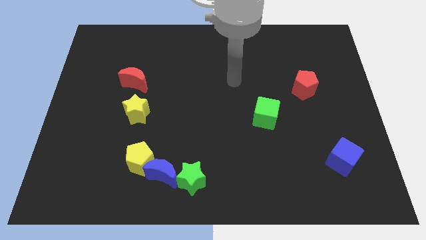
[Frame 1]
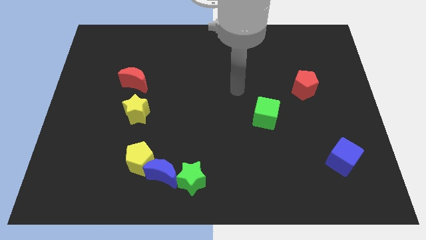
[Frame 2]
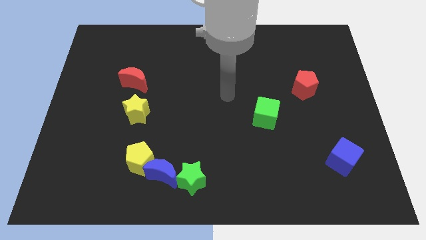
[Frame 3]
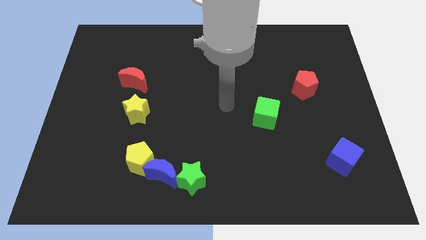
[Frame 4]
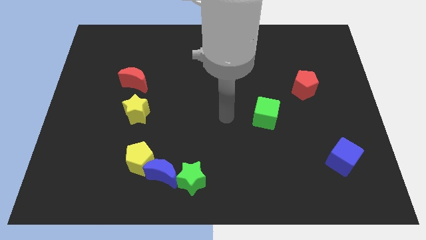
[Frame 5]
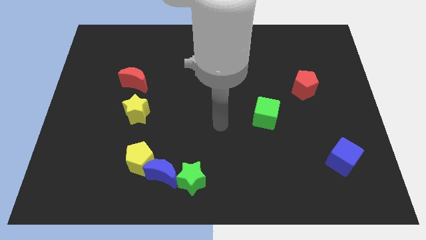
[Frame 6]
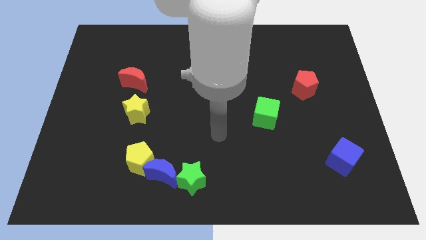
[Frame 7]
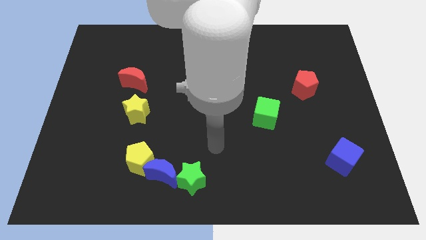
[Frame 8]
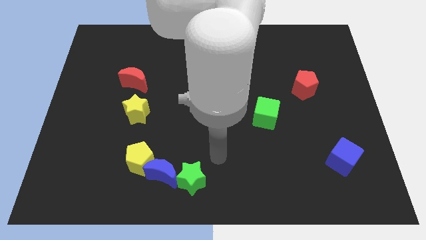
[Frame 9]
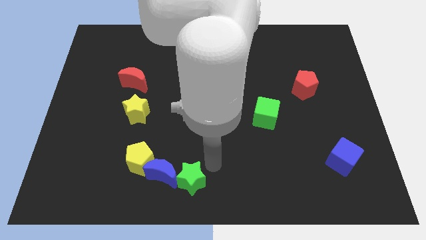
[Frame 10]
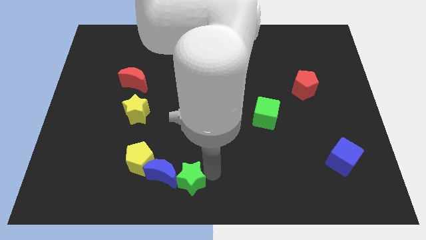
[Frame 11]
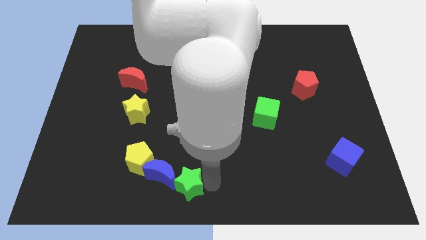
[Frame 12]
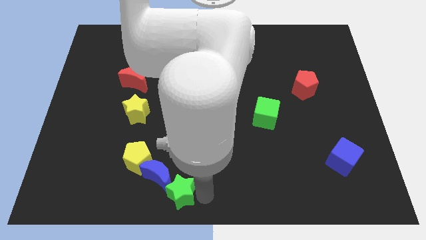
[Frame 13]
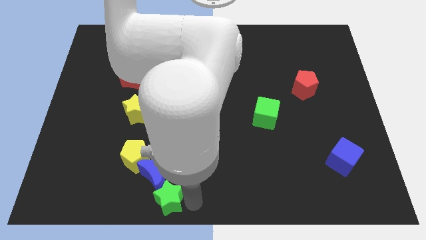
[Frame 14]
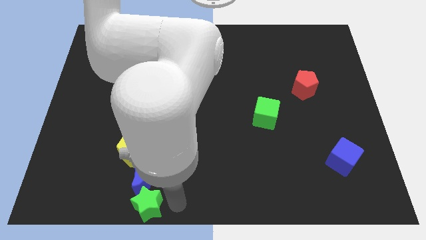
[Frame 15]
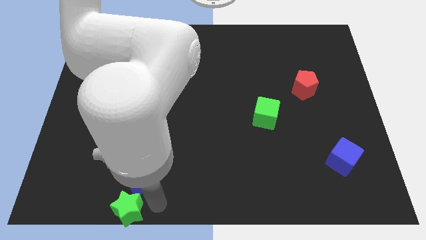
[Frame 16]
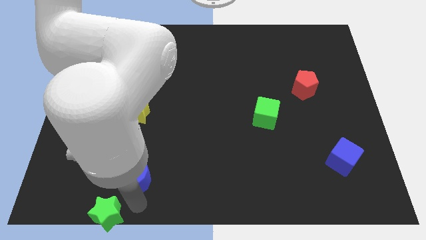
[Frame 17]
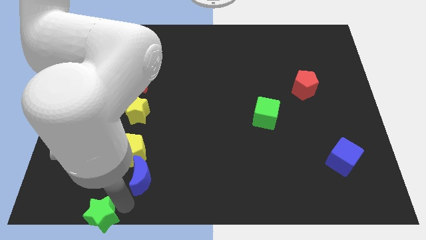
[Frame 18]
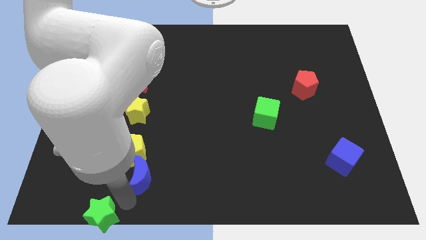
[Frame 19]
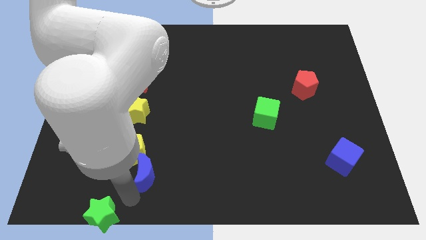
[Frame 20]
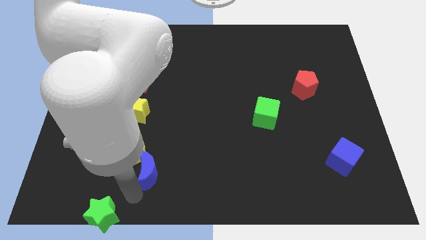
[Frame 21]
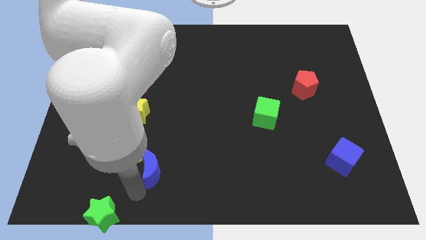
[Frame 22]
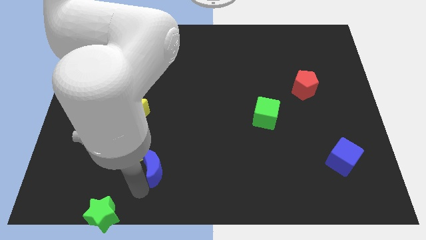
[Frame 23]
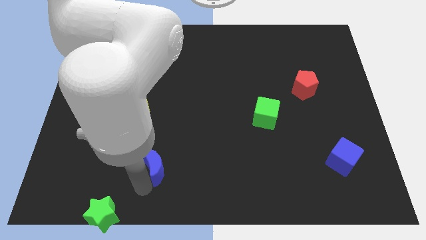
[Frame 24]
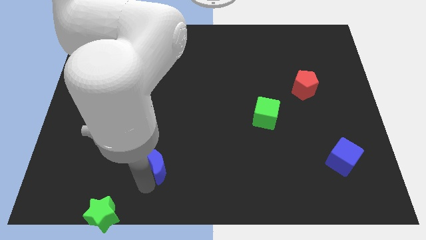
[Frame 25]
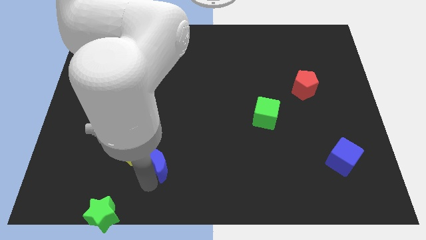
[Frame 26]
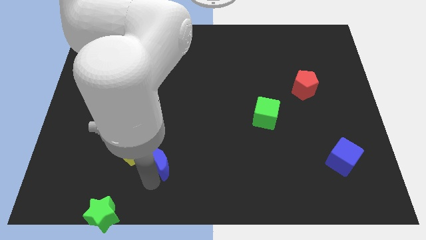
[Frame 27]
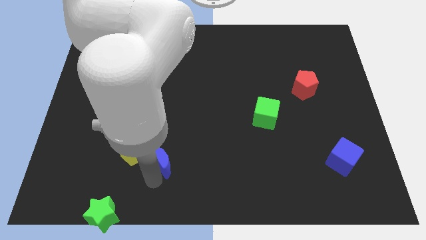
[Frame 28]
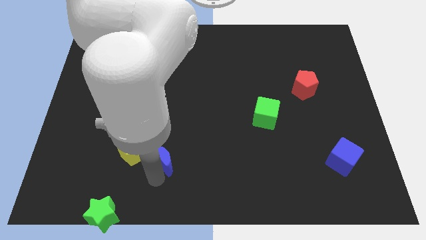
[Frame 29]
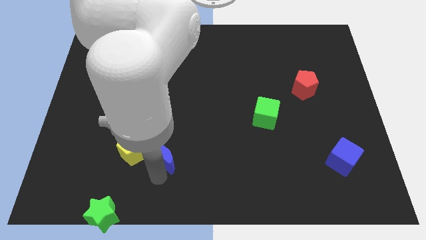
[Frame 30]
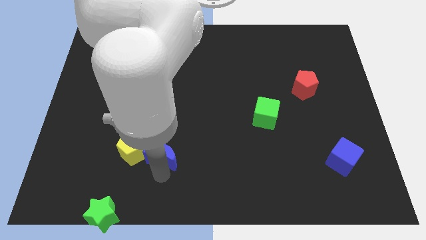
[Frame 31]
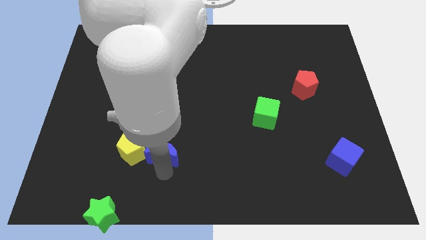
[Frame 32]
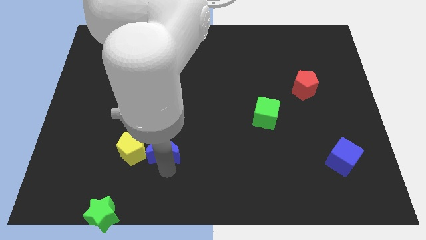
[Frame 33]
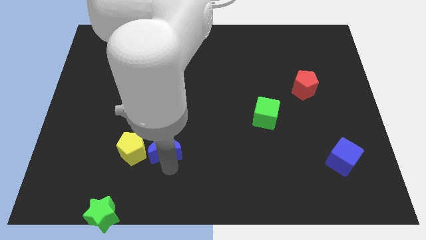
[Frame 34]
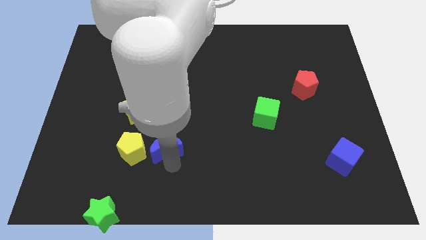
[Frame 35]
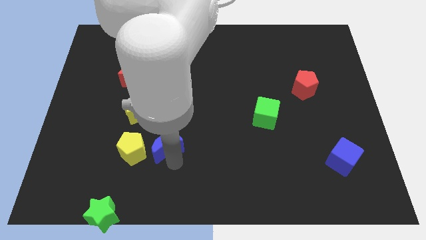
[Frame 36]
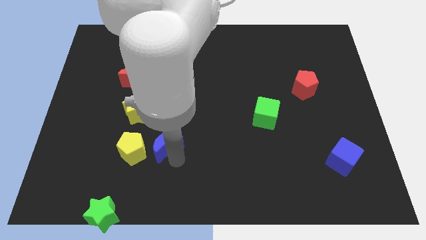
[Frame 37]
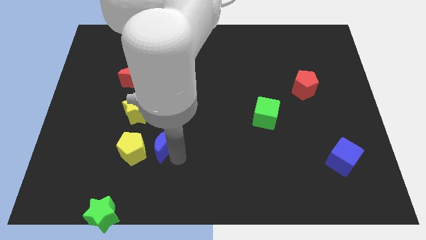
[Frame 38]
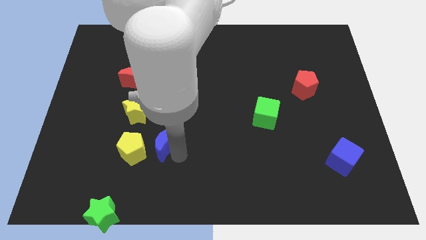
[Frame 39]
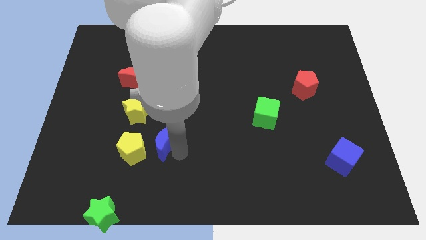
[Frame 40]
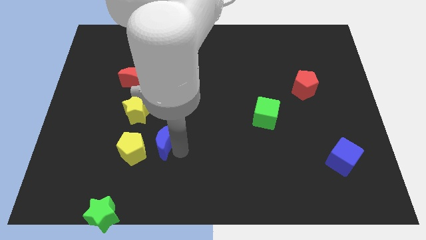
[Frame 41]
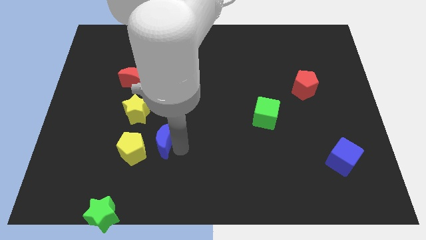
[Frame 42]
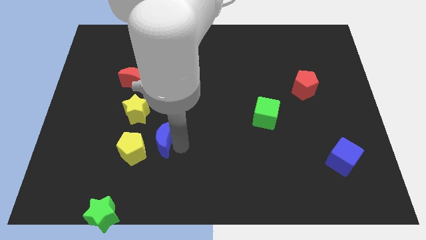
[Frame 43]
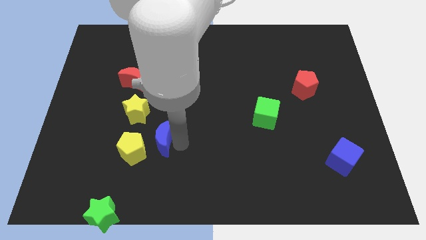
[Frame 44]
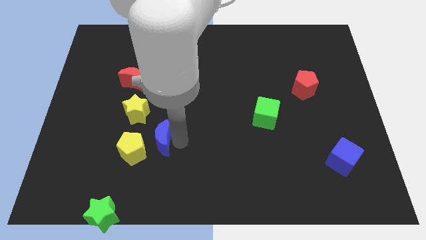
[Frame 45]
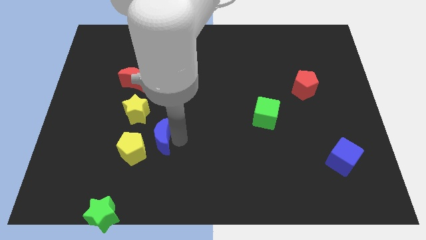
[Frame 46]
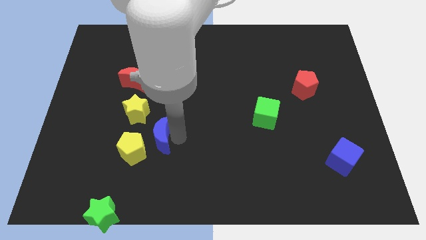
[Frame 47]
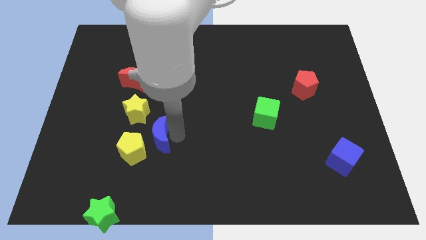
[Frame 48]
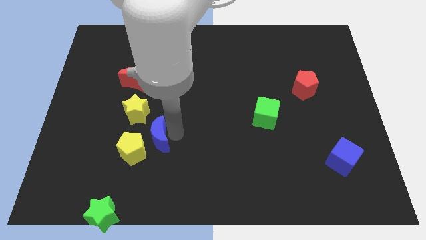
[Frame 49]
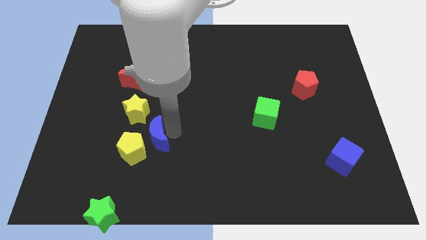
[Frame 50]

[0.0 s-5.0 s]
push the blue moon upwards and left diagonally a bit

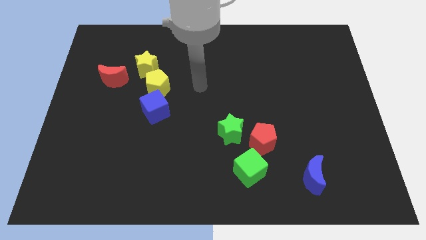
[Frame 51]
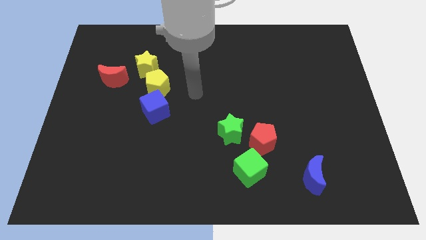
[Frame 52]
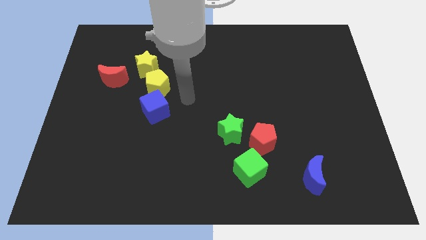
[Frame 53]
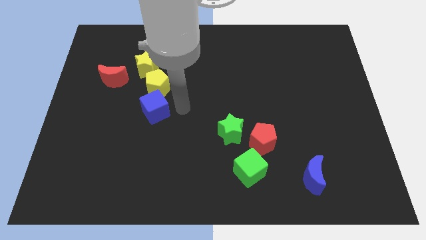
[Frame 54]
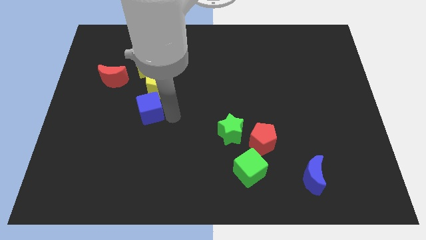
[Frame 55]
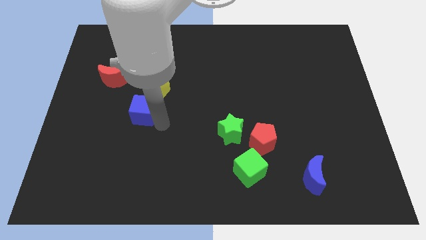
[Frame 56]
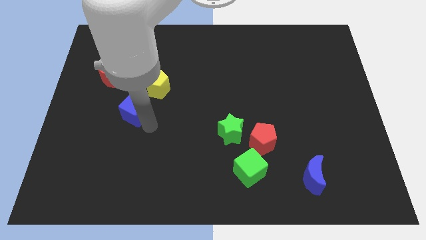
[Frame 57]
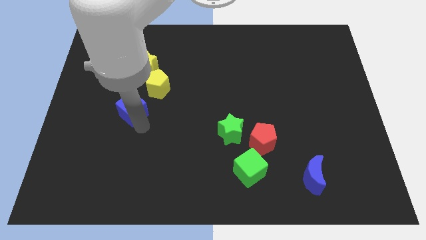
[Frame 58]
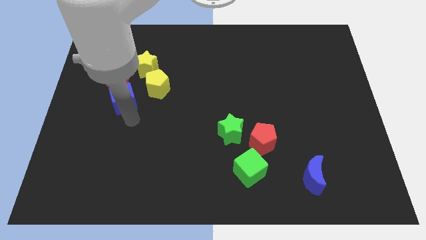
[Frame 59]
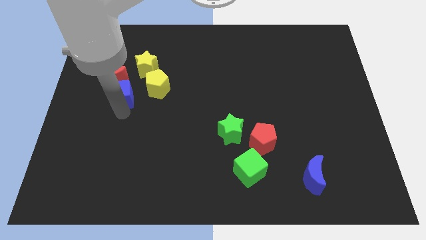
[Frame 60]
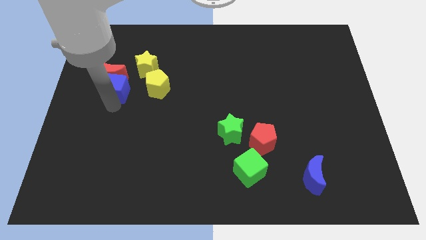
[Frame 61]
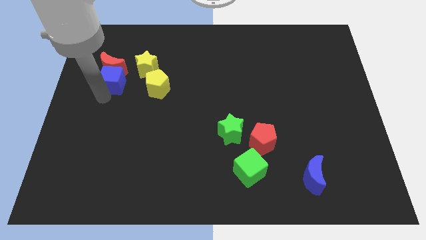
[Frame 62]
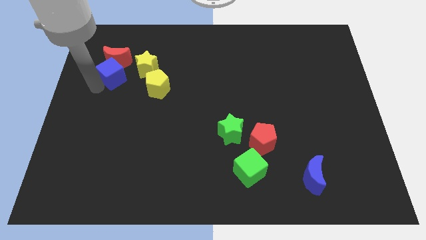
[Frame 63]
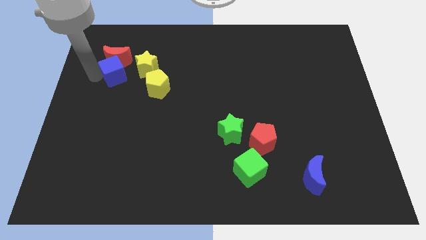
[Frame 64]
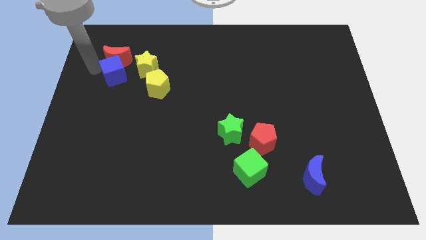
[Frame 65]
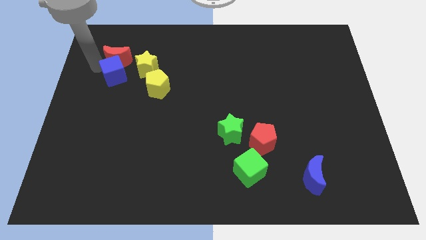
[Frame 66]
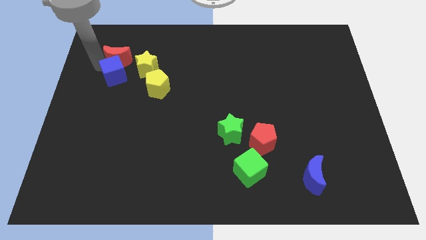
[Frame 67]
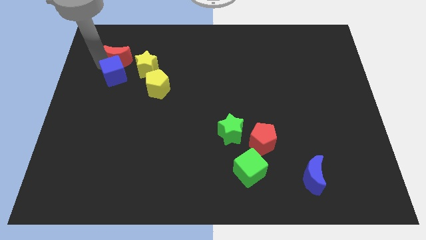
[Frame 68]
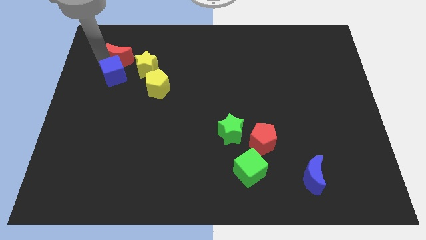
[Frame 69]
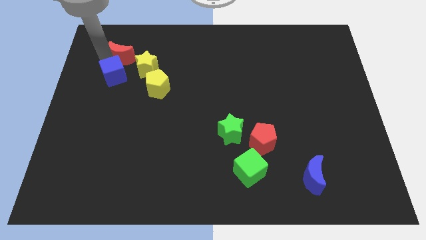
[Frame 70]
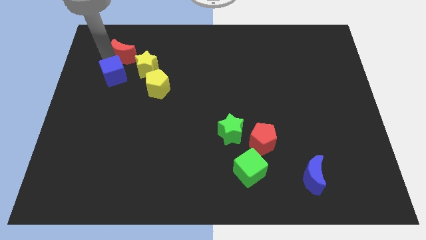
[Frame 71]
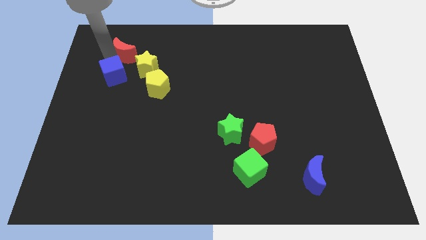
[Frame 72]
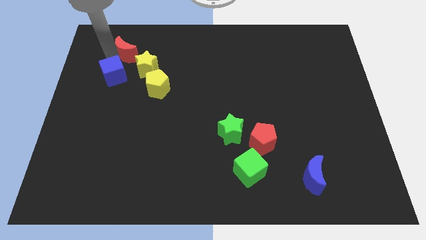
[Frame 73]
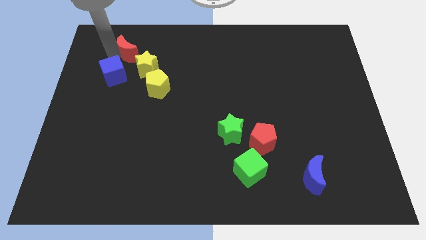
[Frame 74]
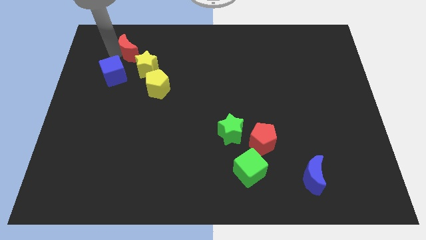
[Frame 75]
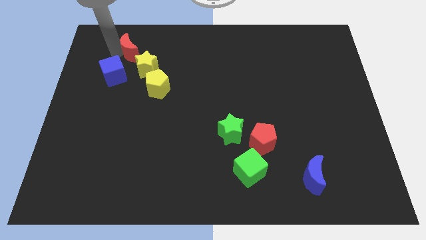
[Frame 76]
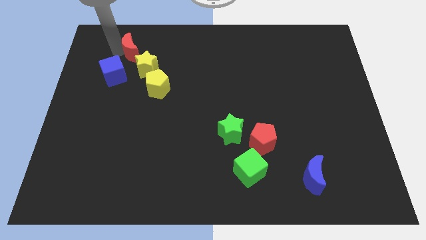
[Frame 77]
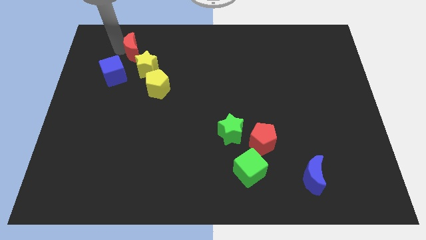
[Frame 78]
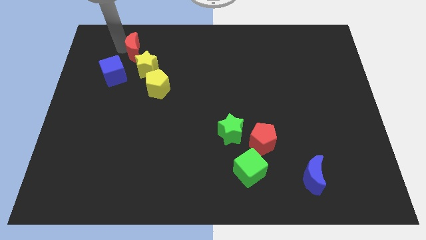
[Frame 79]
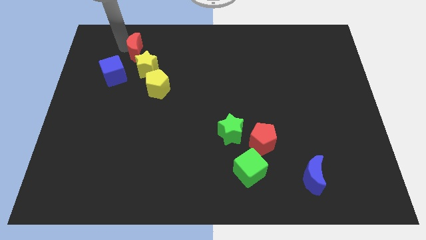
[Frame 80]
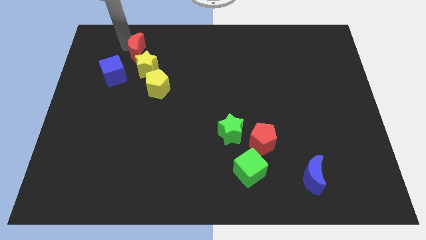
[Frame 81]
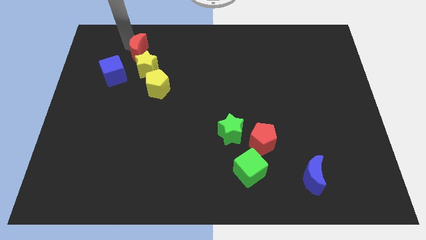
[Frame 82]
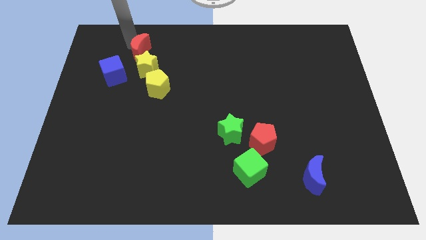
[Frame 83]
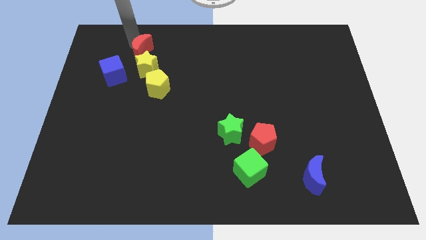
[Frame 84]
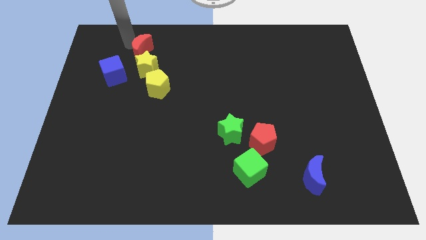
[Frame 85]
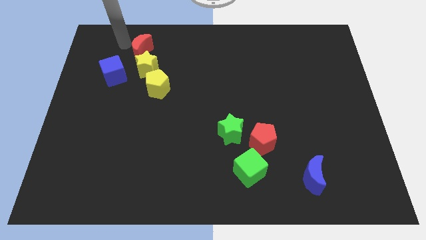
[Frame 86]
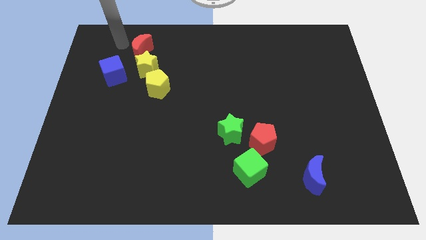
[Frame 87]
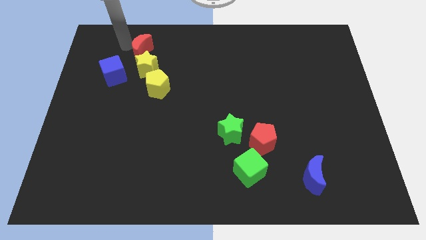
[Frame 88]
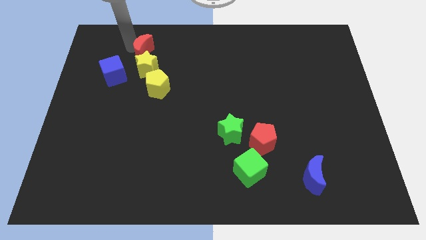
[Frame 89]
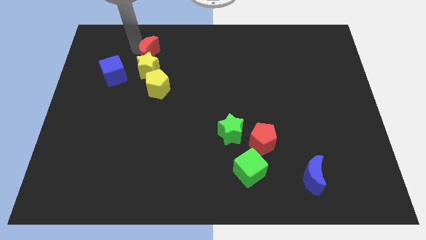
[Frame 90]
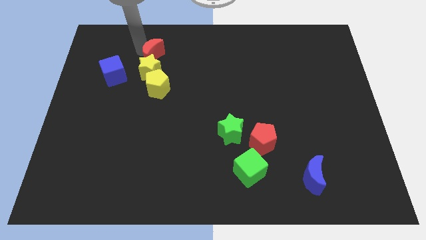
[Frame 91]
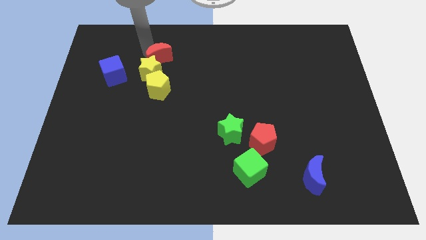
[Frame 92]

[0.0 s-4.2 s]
slide the red moon to the right a little bit
